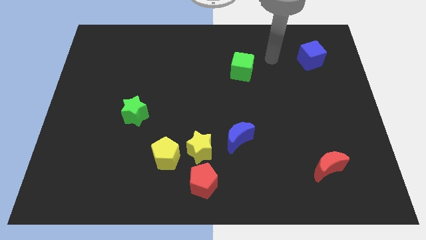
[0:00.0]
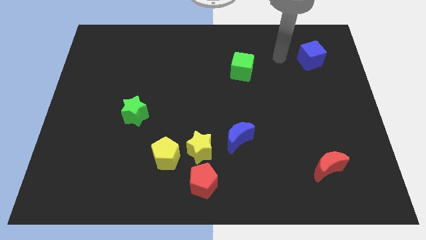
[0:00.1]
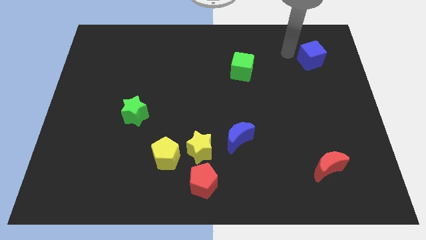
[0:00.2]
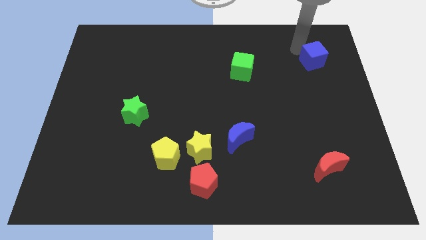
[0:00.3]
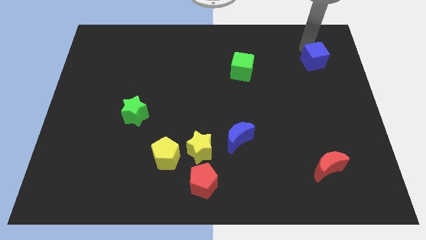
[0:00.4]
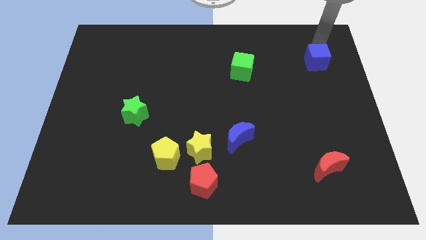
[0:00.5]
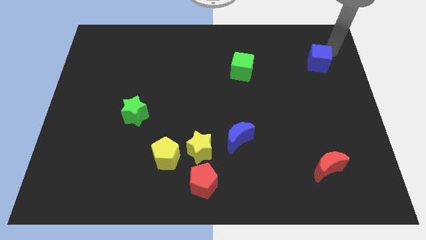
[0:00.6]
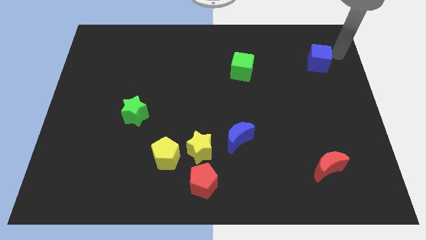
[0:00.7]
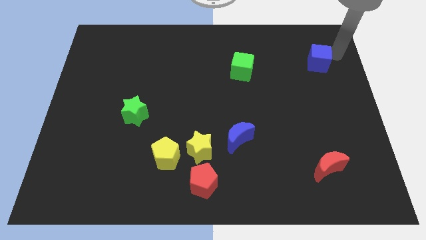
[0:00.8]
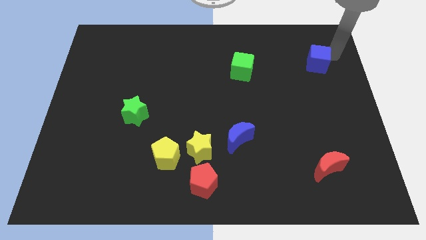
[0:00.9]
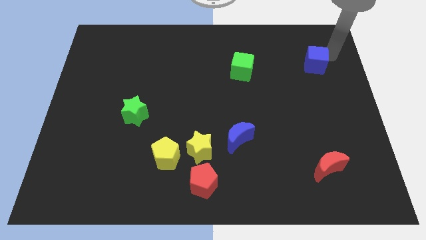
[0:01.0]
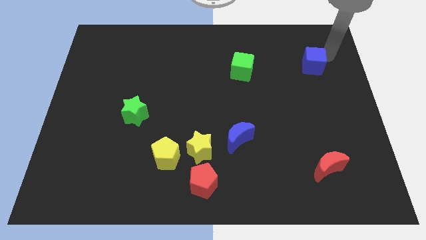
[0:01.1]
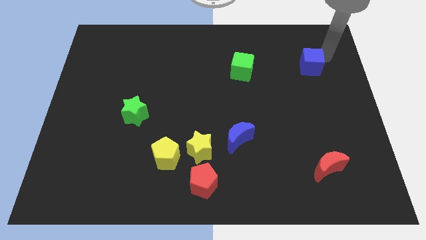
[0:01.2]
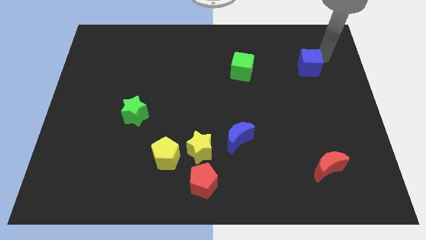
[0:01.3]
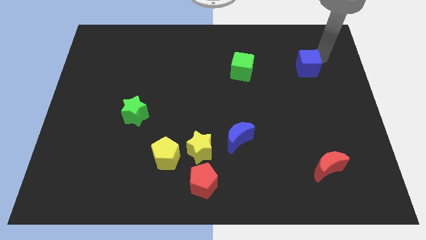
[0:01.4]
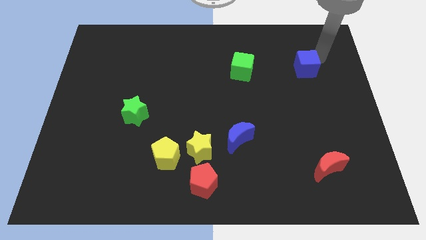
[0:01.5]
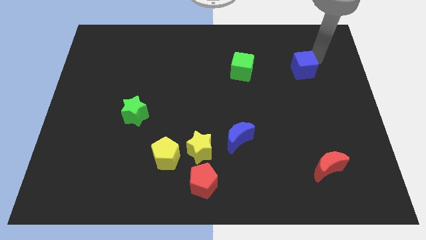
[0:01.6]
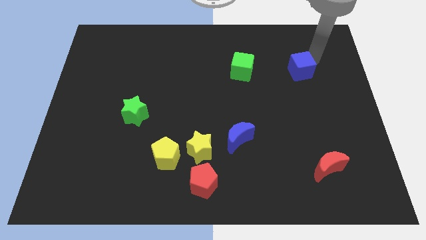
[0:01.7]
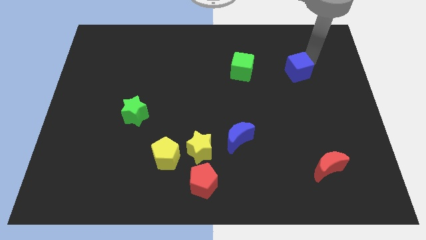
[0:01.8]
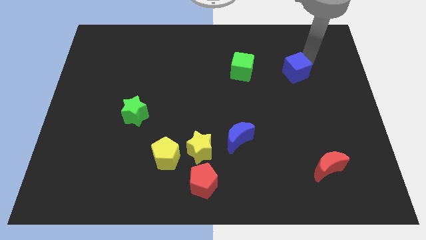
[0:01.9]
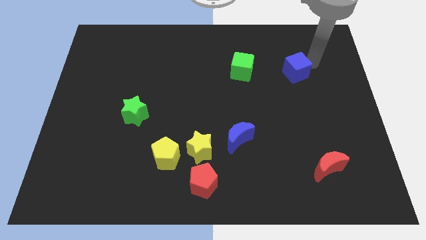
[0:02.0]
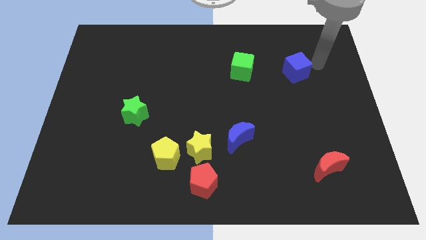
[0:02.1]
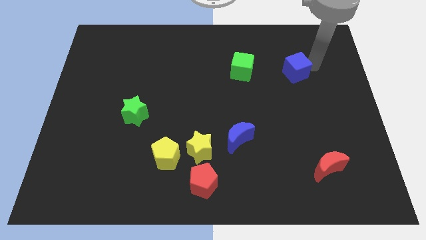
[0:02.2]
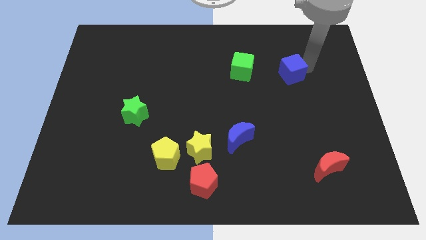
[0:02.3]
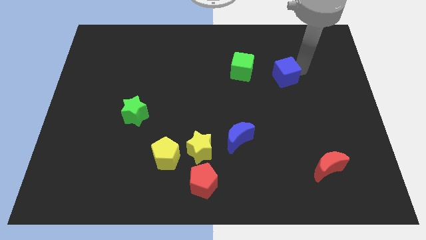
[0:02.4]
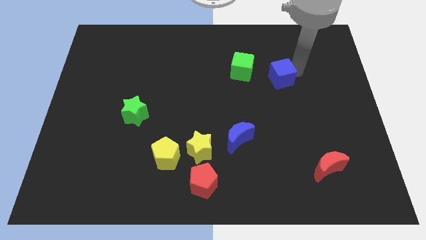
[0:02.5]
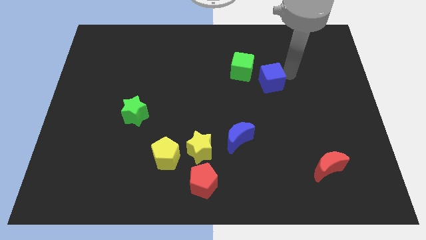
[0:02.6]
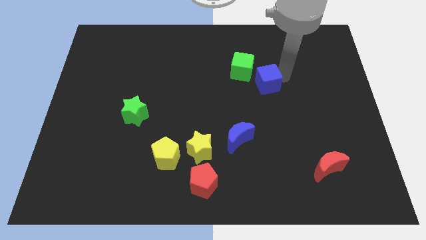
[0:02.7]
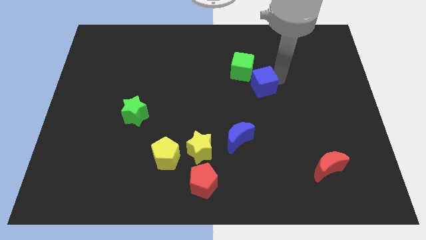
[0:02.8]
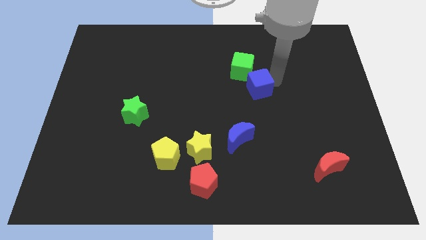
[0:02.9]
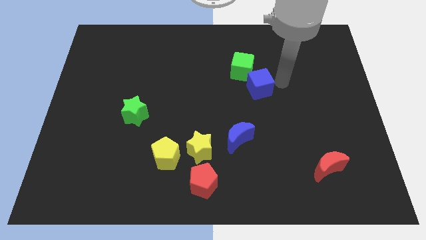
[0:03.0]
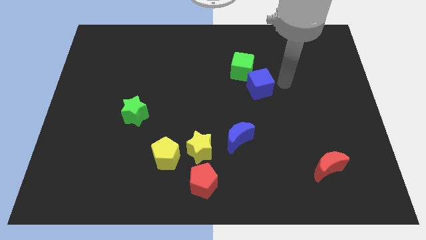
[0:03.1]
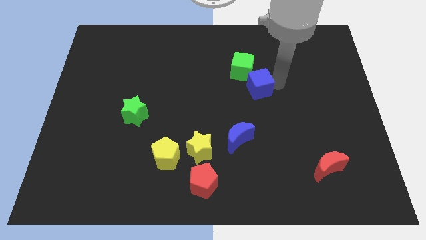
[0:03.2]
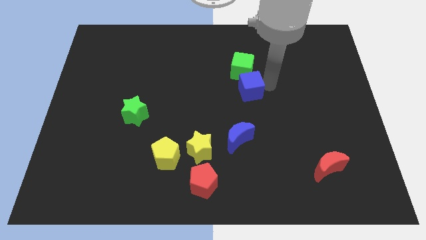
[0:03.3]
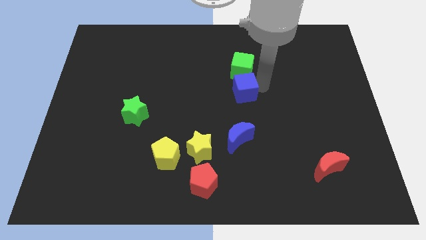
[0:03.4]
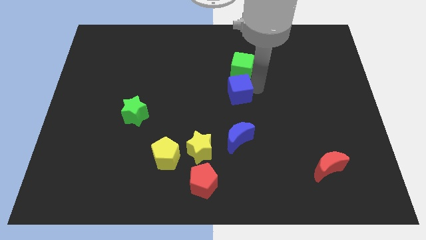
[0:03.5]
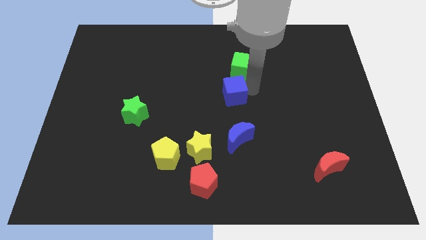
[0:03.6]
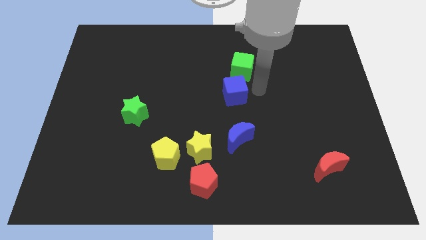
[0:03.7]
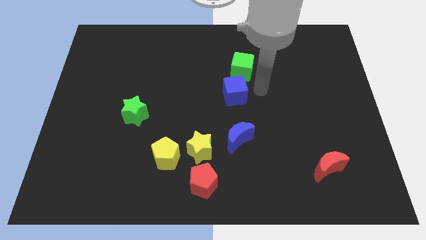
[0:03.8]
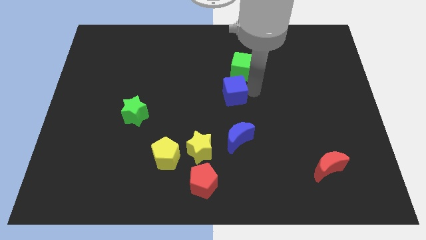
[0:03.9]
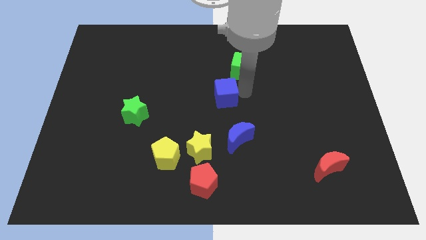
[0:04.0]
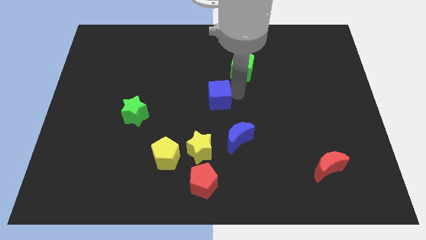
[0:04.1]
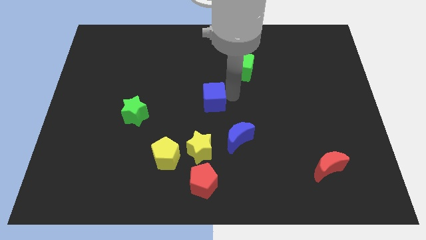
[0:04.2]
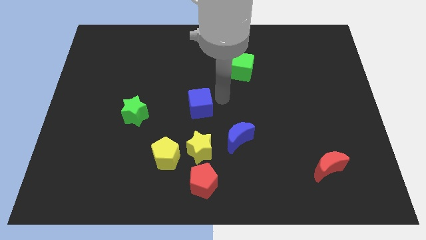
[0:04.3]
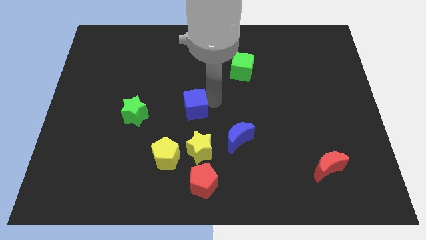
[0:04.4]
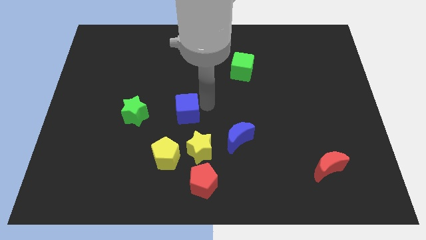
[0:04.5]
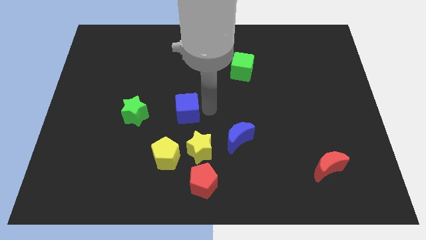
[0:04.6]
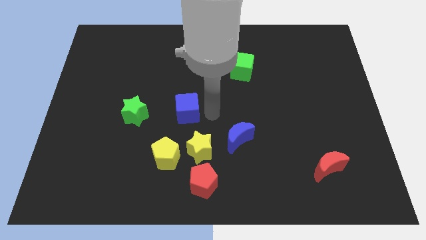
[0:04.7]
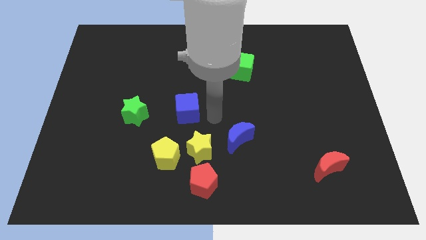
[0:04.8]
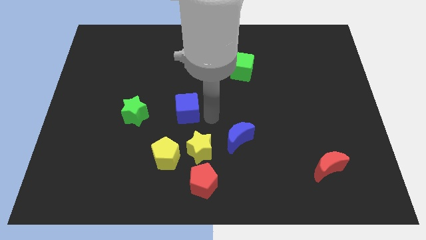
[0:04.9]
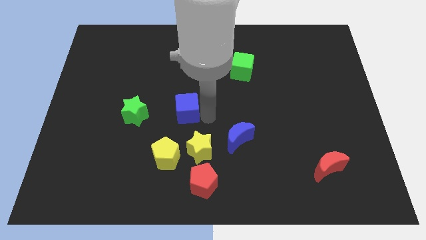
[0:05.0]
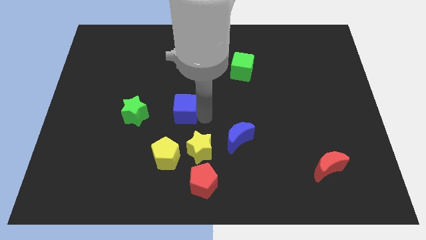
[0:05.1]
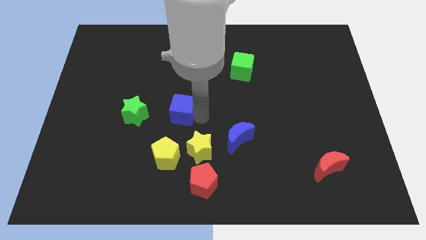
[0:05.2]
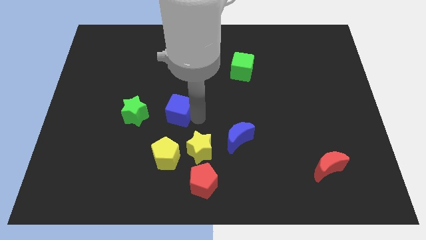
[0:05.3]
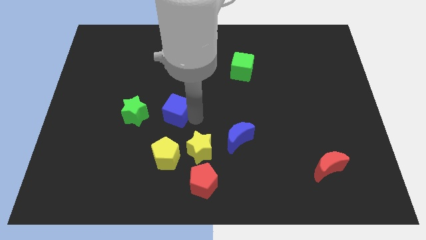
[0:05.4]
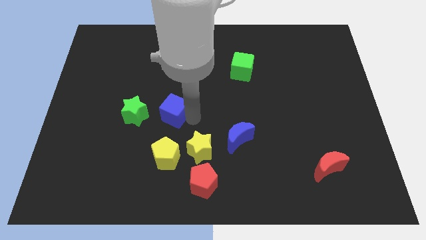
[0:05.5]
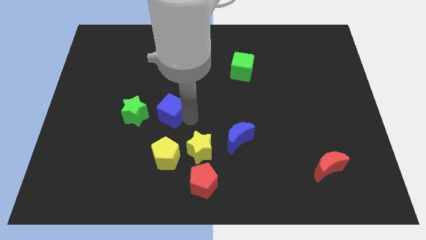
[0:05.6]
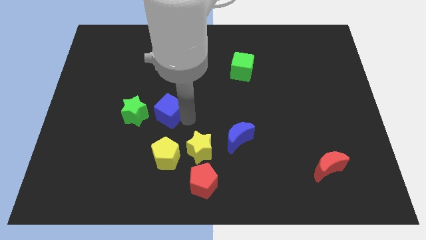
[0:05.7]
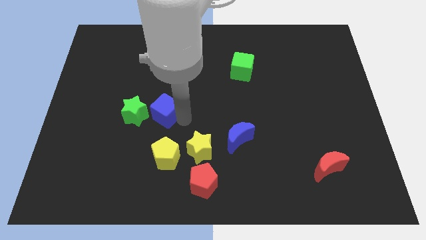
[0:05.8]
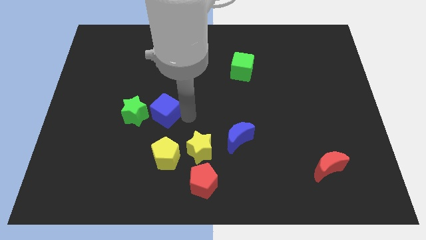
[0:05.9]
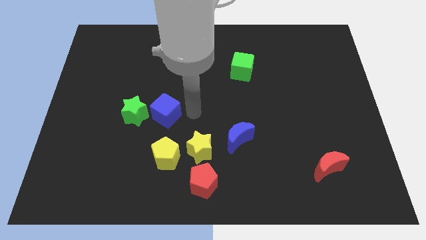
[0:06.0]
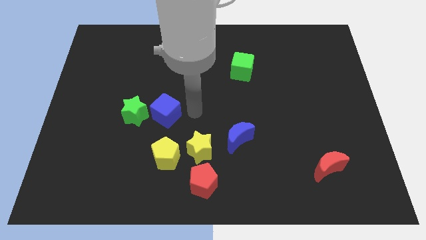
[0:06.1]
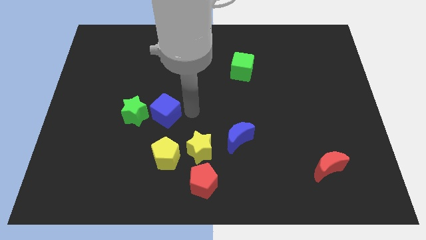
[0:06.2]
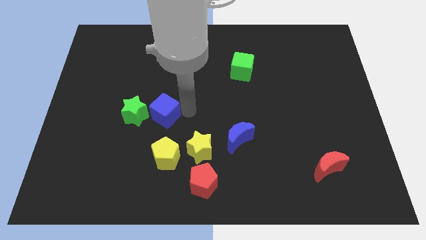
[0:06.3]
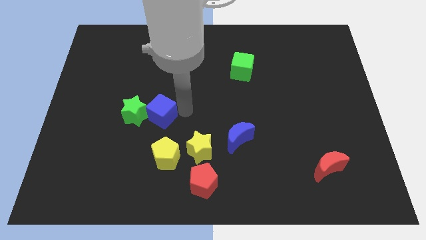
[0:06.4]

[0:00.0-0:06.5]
slide the blue cube next to the green star

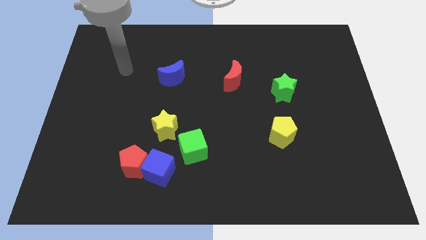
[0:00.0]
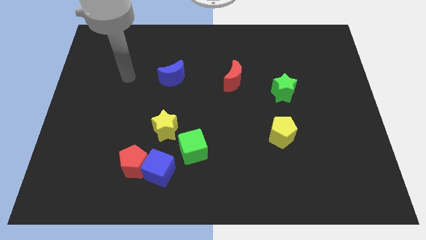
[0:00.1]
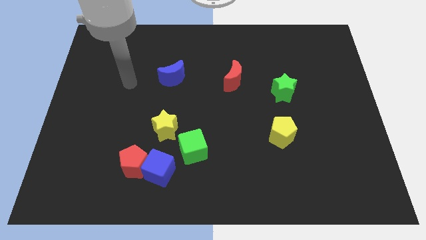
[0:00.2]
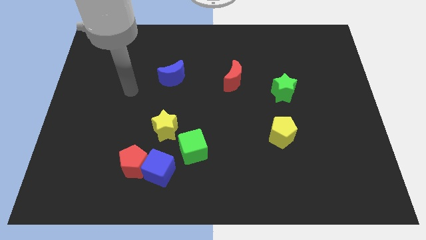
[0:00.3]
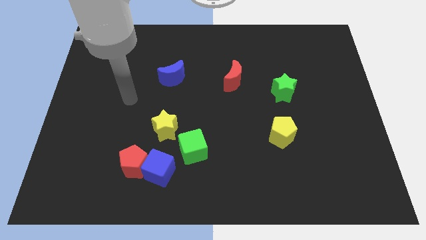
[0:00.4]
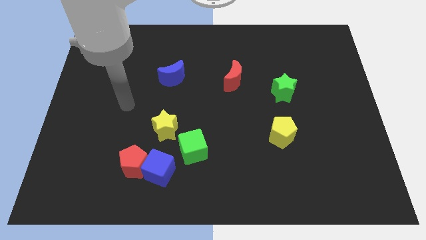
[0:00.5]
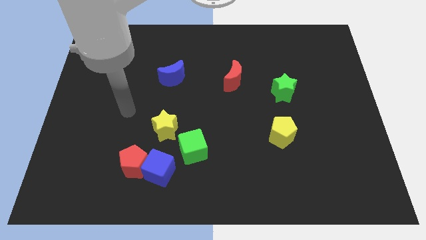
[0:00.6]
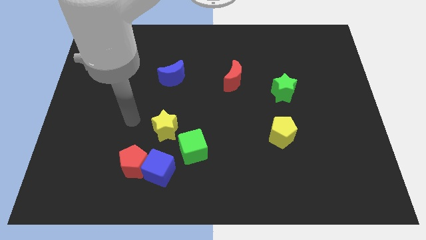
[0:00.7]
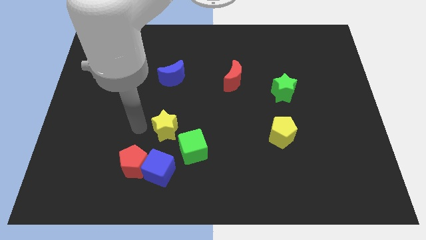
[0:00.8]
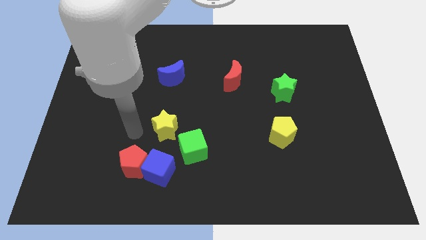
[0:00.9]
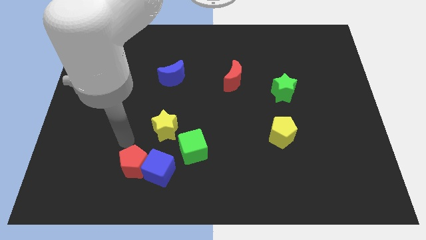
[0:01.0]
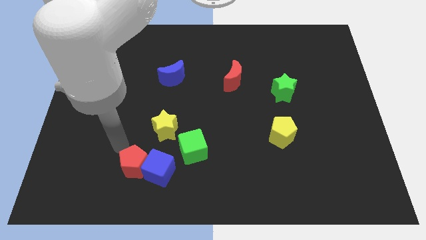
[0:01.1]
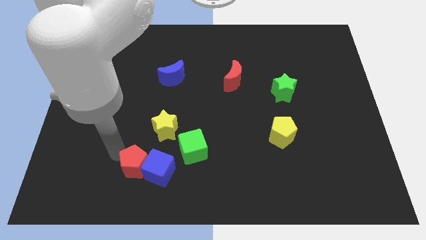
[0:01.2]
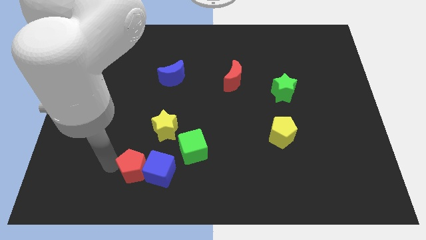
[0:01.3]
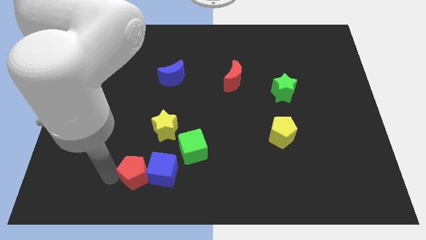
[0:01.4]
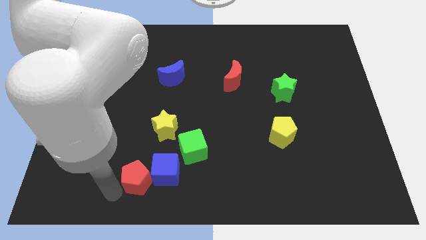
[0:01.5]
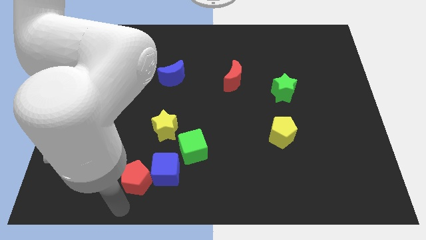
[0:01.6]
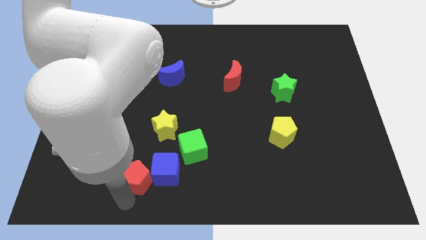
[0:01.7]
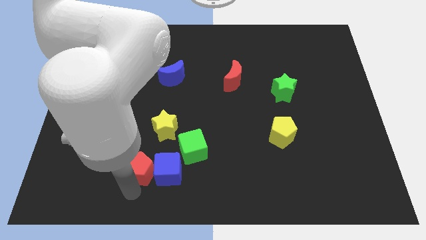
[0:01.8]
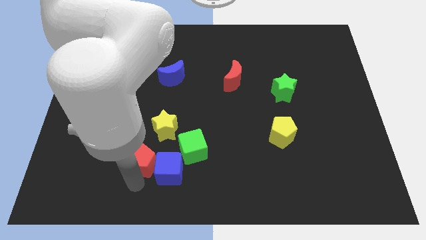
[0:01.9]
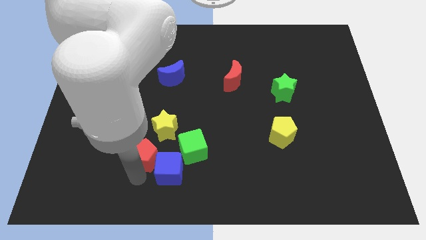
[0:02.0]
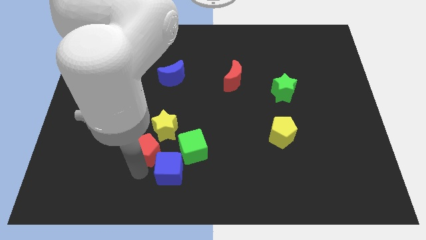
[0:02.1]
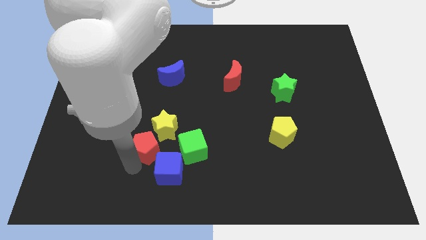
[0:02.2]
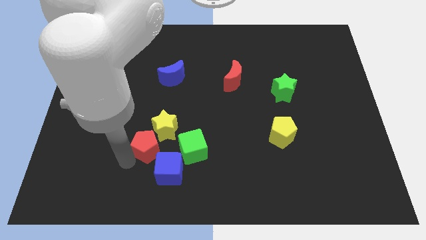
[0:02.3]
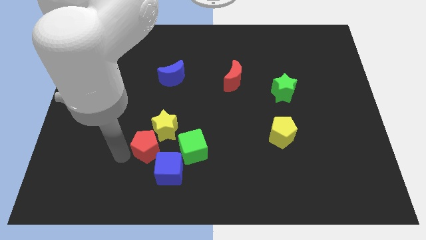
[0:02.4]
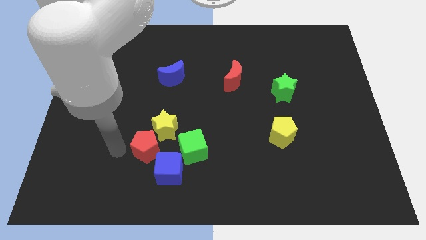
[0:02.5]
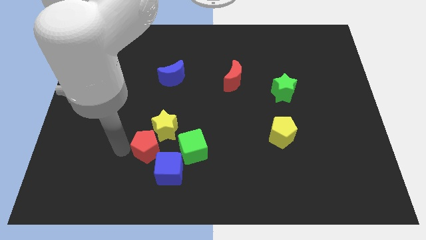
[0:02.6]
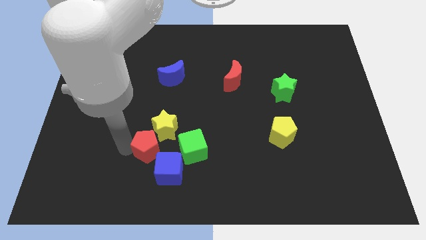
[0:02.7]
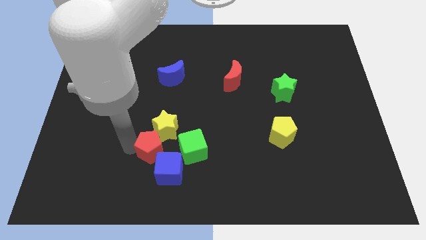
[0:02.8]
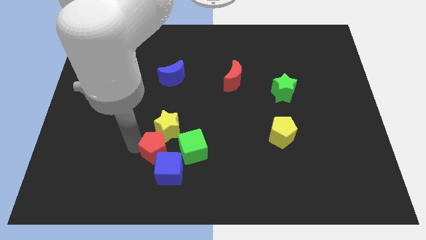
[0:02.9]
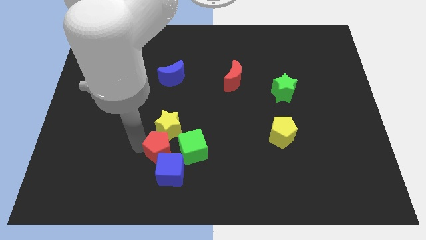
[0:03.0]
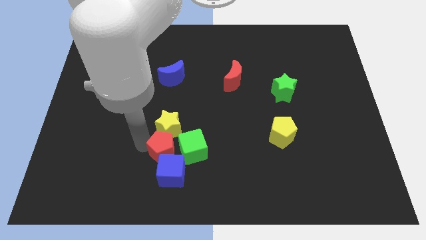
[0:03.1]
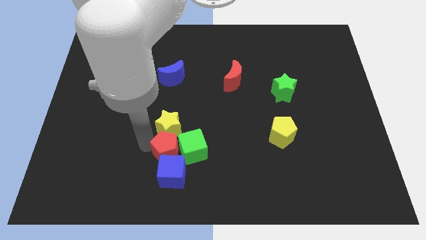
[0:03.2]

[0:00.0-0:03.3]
put the red pentagon next to the green cube
